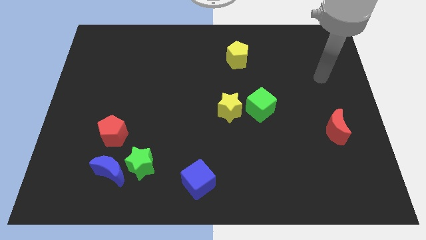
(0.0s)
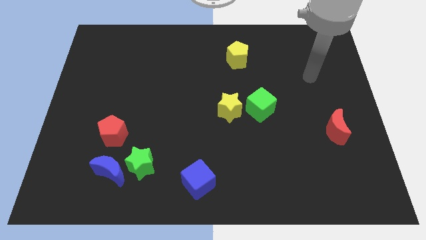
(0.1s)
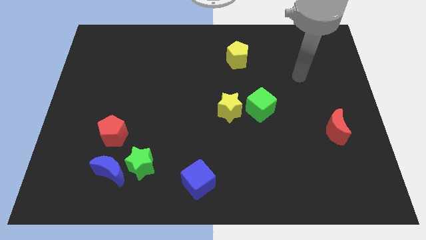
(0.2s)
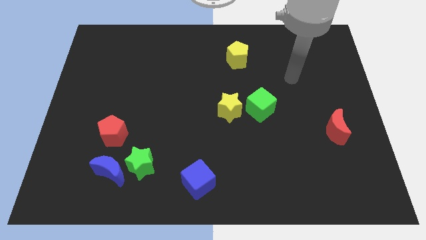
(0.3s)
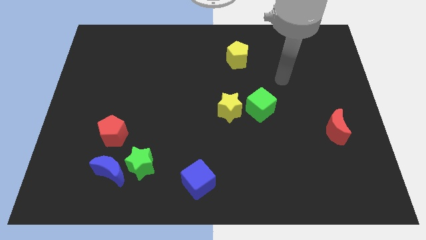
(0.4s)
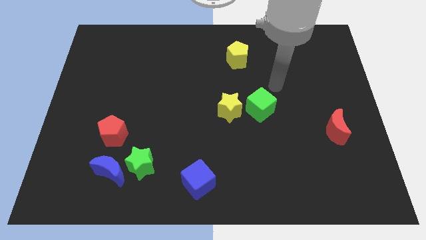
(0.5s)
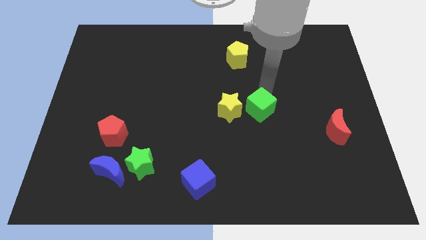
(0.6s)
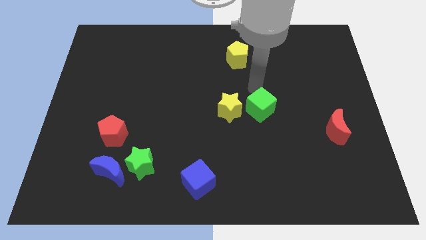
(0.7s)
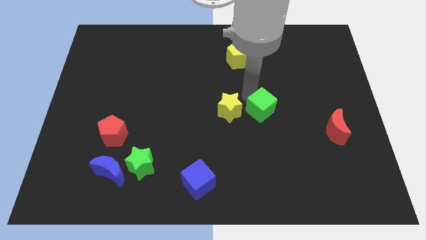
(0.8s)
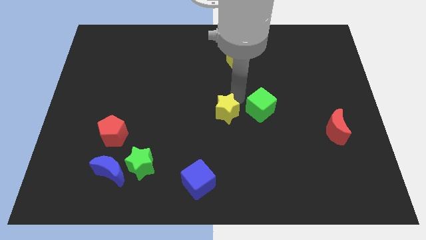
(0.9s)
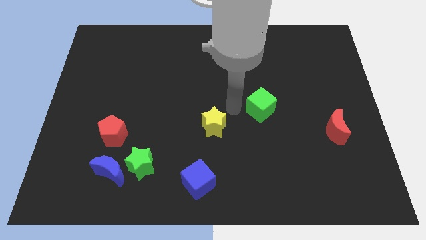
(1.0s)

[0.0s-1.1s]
pull the green cube apart from the yellow star

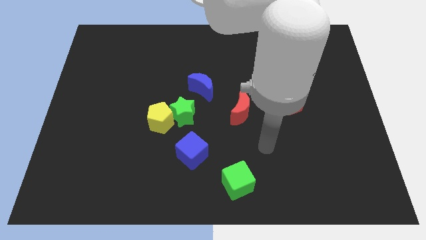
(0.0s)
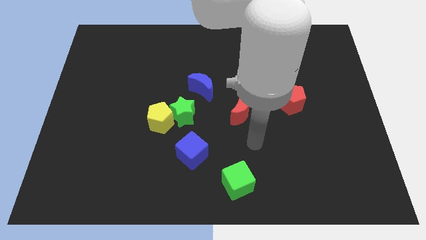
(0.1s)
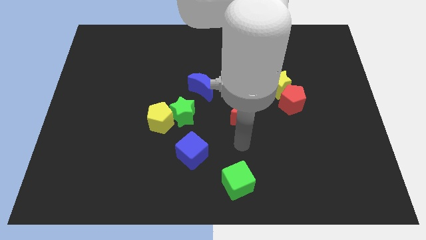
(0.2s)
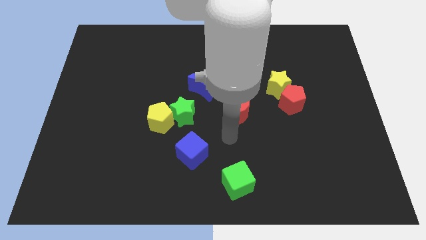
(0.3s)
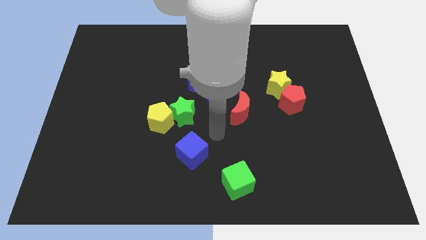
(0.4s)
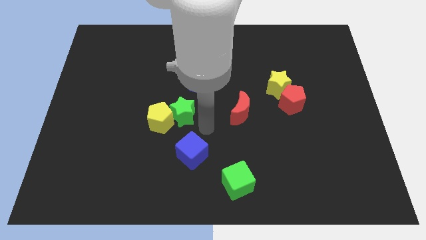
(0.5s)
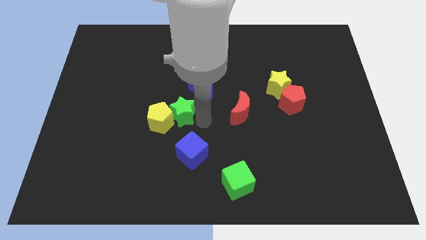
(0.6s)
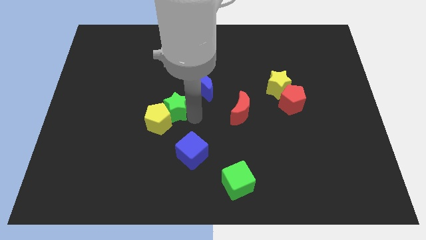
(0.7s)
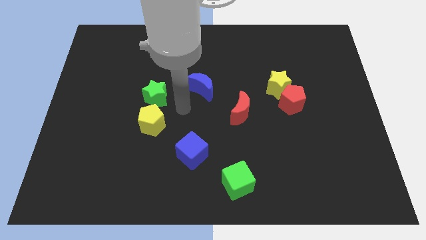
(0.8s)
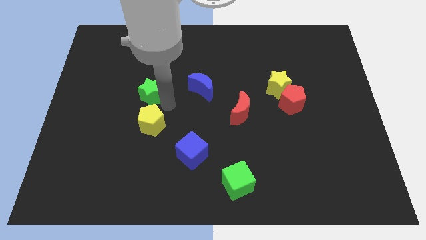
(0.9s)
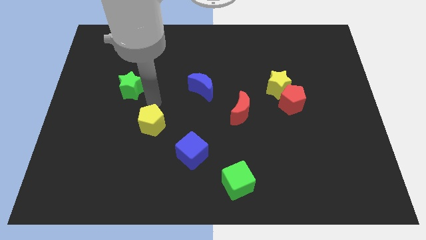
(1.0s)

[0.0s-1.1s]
pull the yellow pentagon apart from the green star

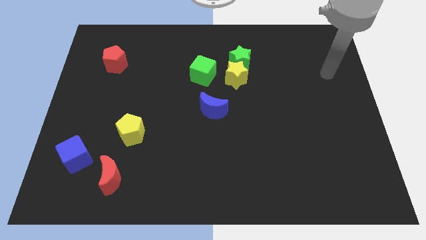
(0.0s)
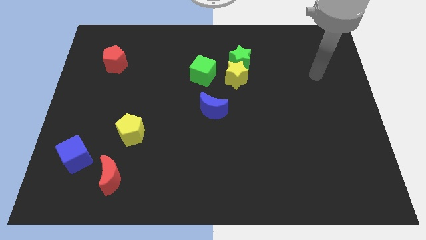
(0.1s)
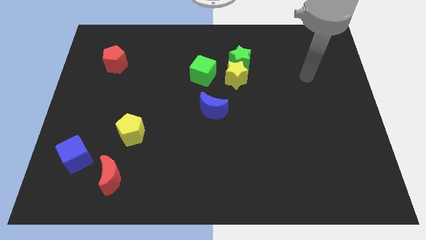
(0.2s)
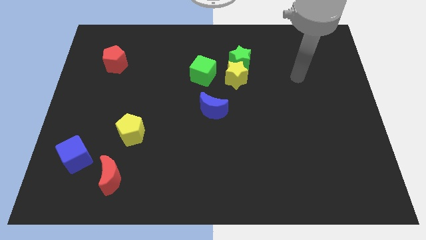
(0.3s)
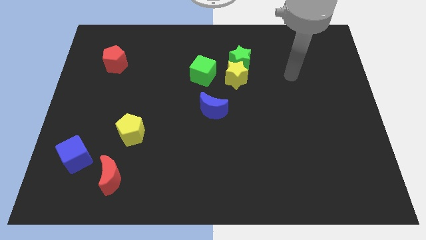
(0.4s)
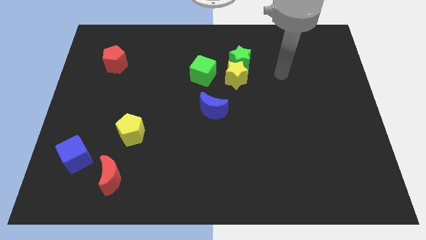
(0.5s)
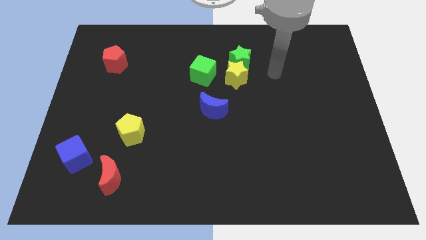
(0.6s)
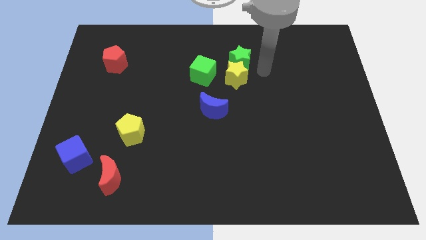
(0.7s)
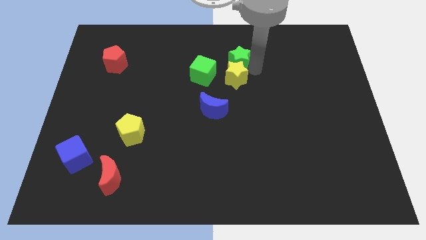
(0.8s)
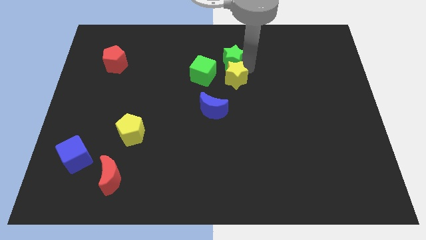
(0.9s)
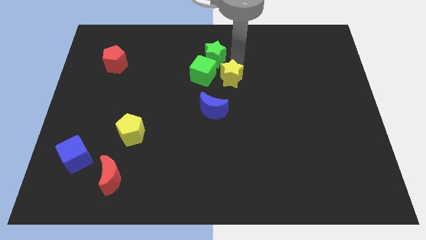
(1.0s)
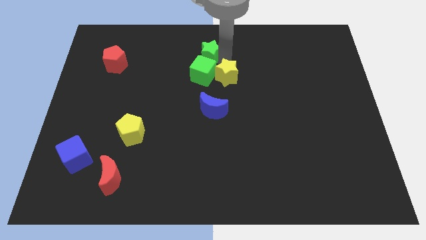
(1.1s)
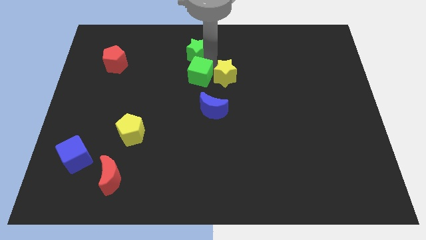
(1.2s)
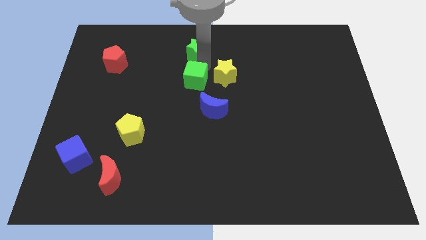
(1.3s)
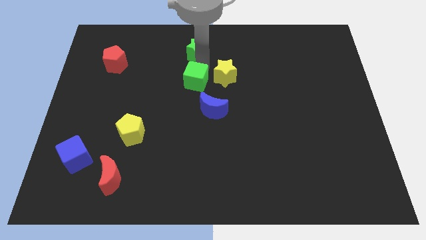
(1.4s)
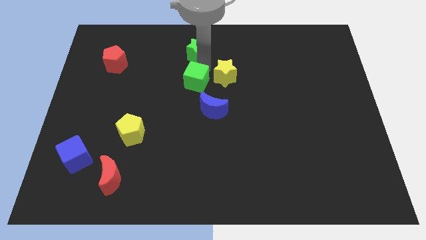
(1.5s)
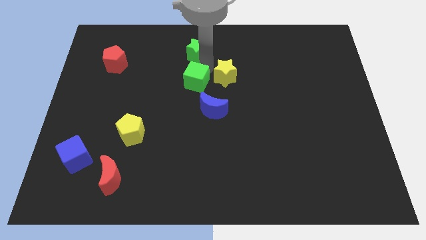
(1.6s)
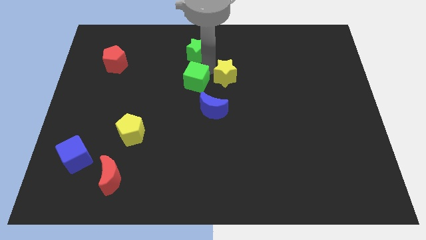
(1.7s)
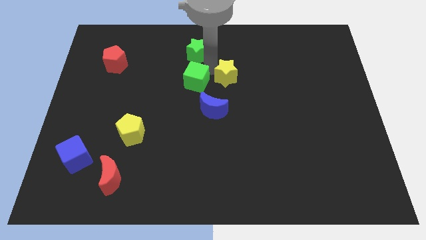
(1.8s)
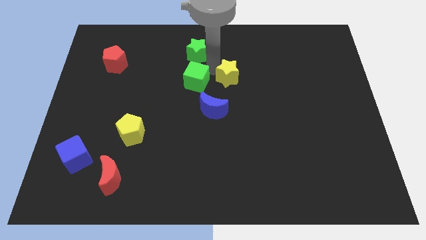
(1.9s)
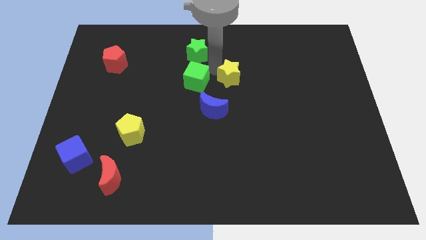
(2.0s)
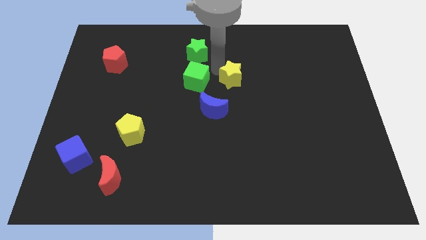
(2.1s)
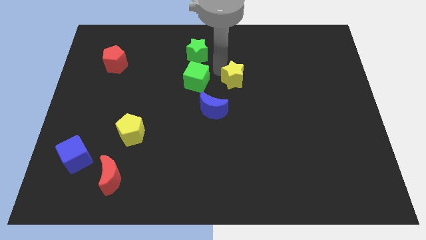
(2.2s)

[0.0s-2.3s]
pull the yellow star apart from the green star and green cube

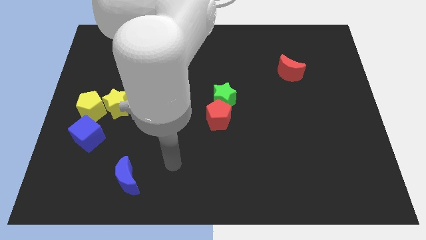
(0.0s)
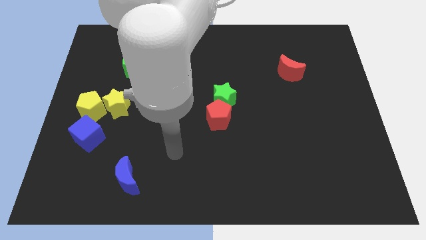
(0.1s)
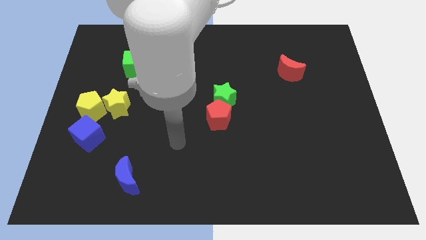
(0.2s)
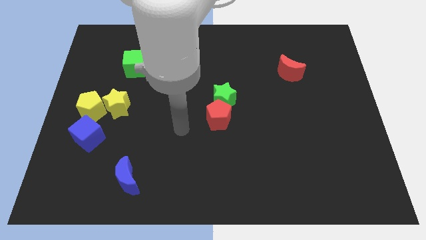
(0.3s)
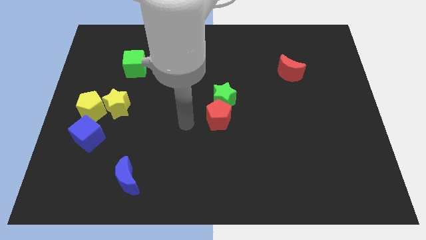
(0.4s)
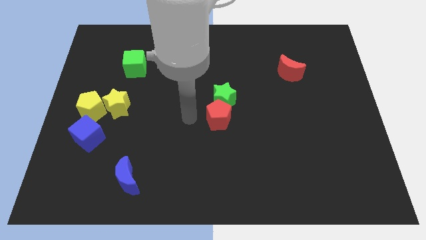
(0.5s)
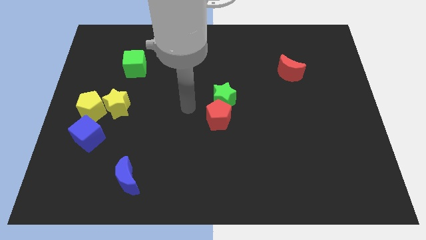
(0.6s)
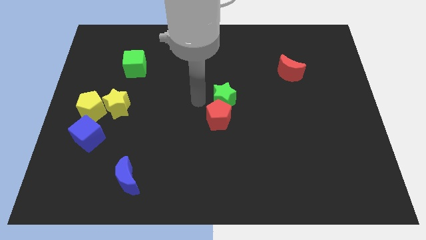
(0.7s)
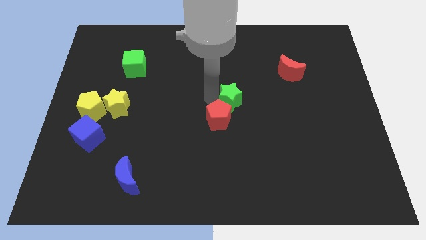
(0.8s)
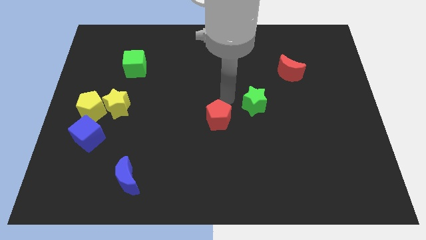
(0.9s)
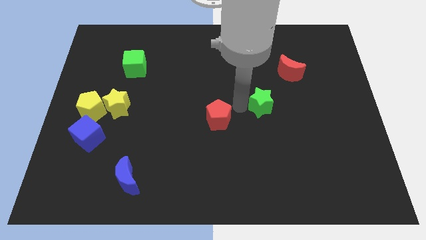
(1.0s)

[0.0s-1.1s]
pull the red pentagon apart from the green star

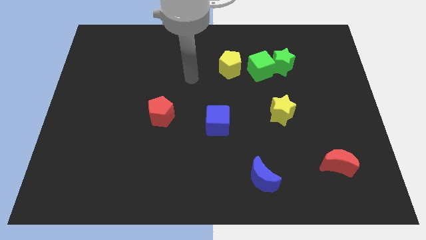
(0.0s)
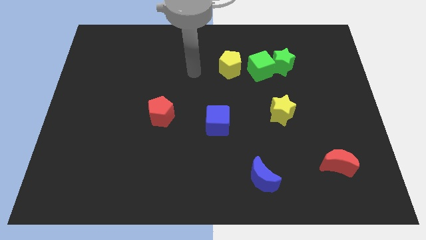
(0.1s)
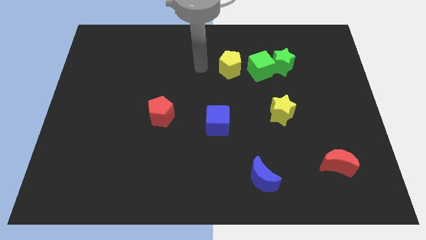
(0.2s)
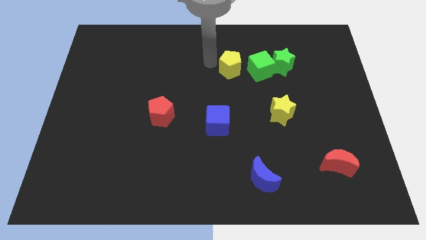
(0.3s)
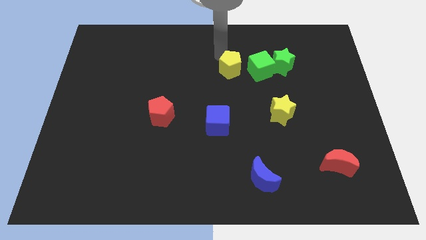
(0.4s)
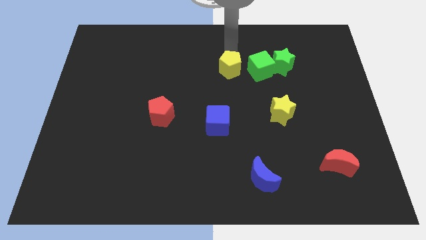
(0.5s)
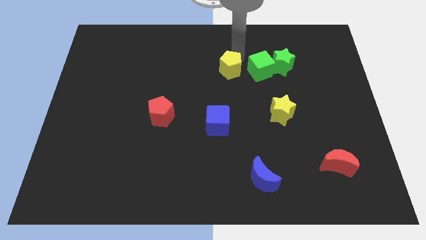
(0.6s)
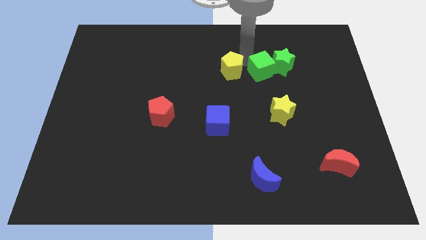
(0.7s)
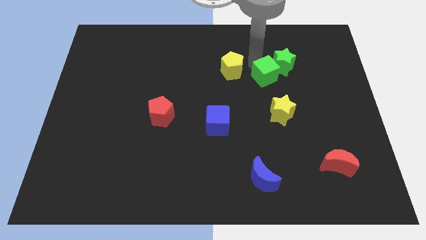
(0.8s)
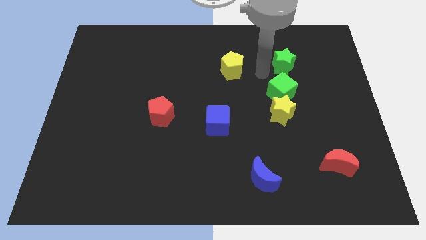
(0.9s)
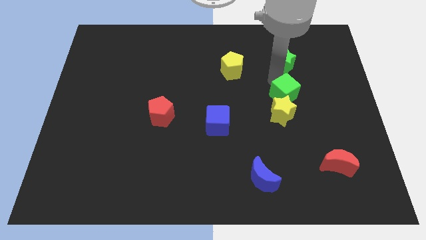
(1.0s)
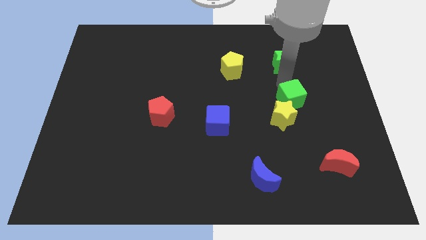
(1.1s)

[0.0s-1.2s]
separate the green star from the green cube

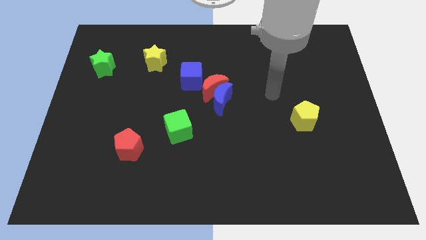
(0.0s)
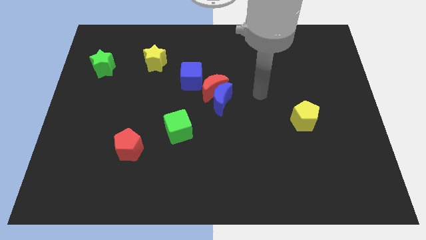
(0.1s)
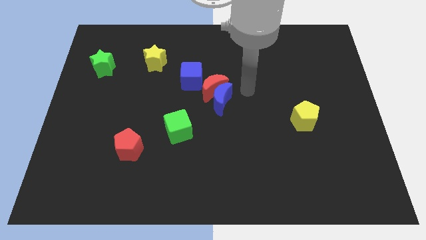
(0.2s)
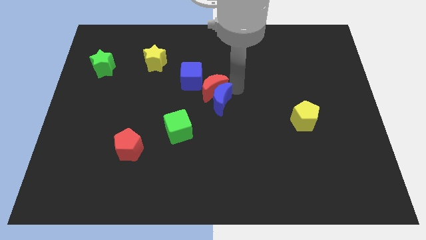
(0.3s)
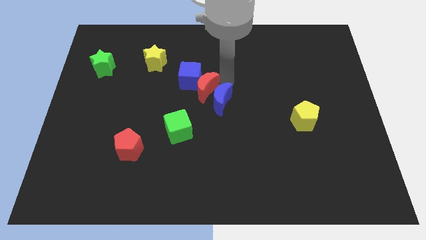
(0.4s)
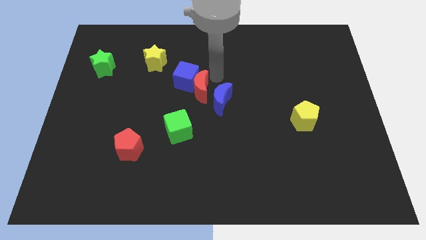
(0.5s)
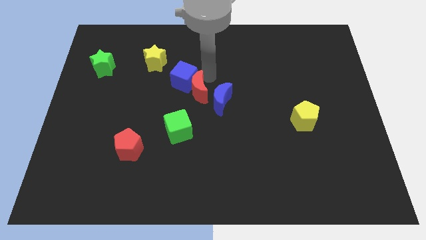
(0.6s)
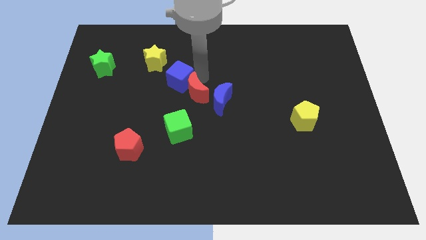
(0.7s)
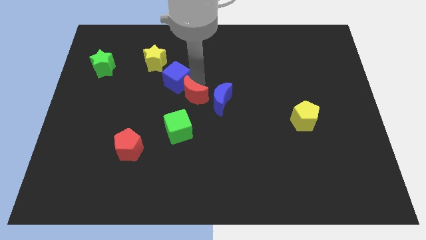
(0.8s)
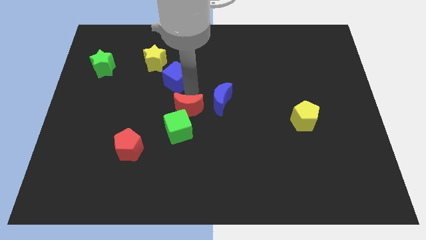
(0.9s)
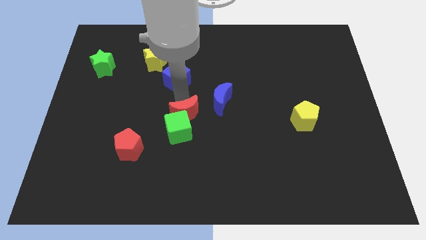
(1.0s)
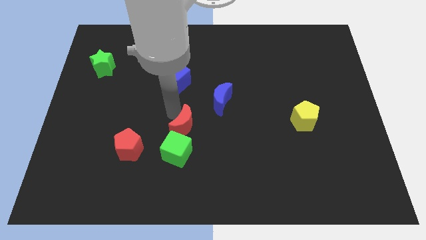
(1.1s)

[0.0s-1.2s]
move the red moon away from the blue moon and blue cube

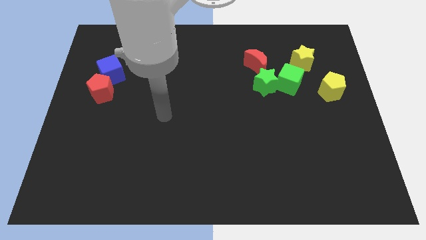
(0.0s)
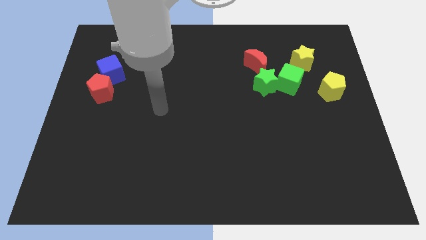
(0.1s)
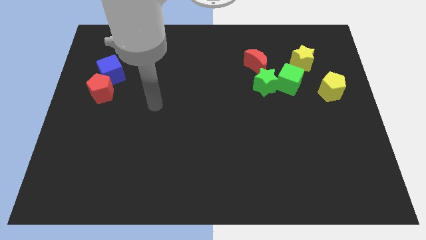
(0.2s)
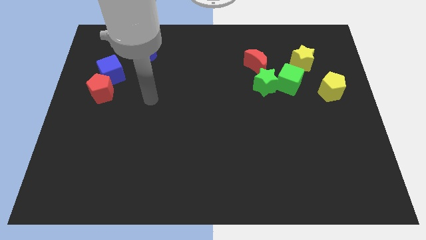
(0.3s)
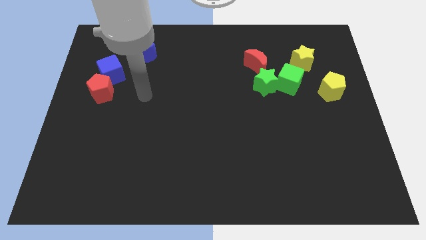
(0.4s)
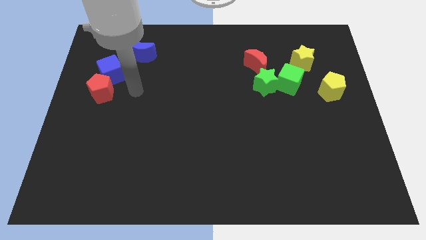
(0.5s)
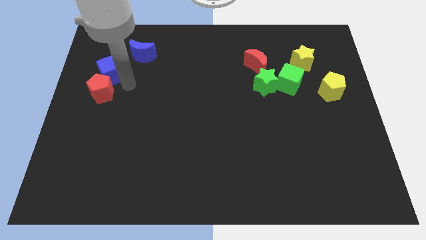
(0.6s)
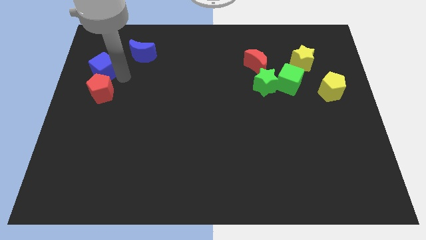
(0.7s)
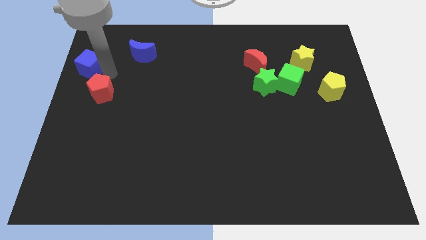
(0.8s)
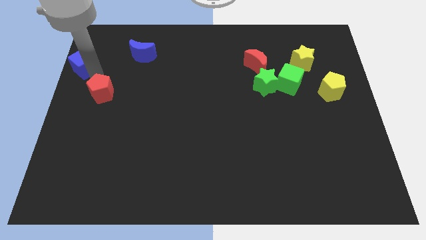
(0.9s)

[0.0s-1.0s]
move the red pentagon away from the blue cube

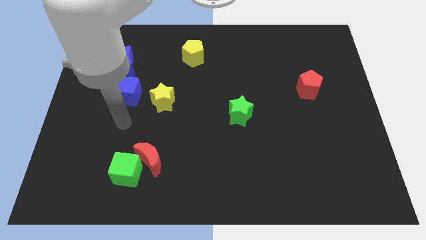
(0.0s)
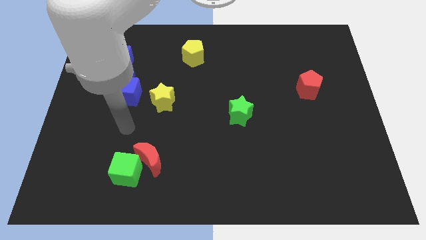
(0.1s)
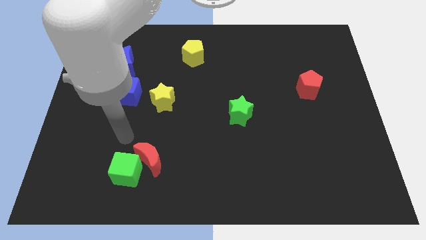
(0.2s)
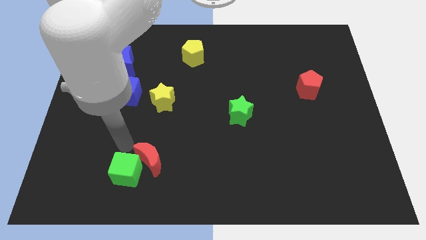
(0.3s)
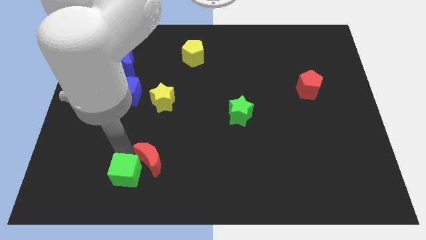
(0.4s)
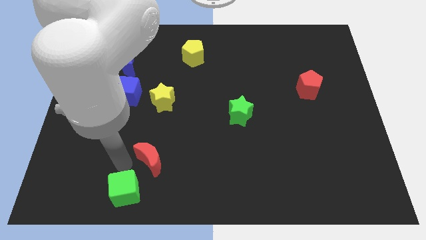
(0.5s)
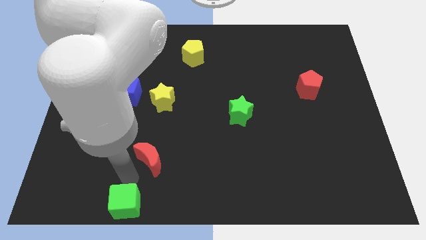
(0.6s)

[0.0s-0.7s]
separate the red moon from the green cube
